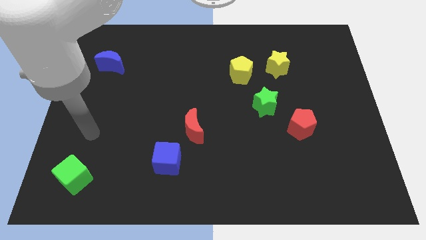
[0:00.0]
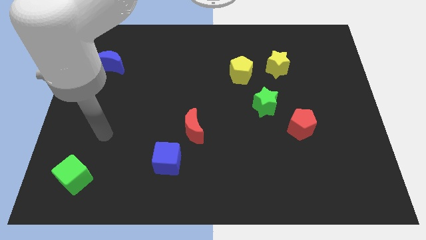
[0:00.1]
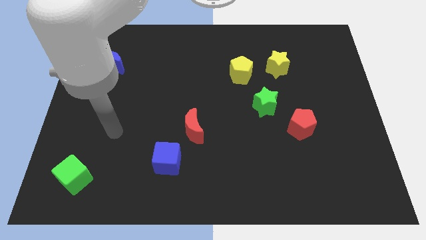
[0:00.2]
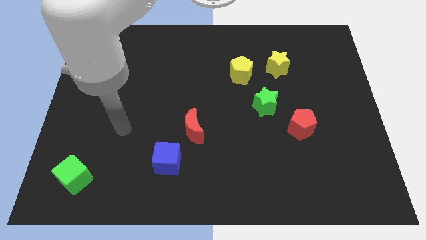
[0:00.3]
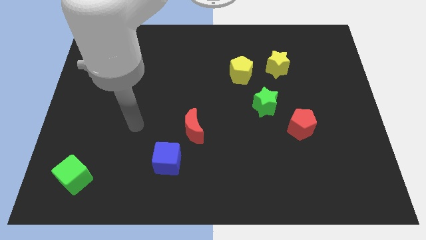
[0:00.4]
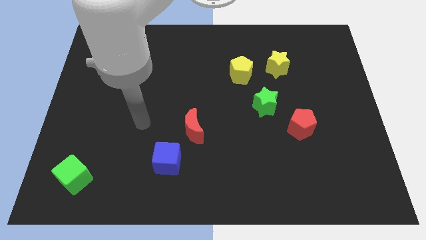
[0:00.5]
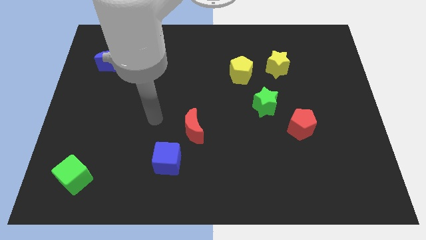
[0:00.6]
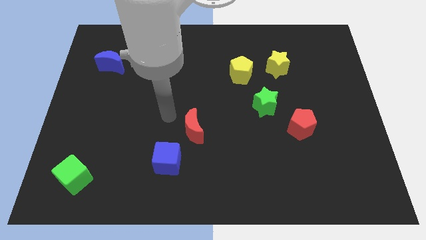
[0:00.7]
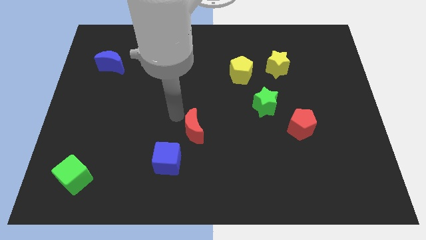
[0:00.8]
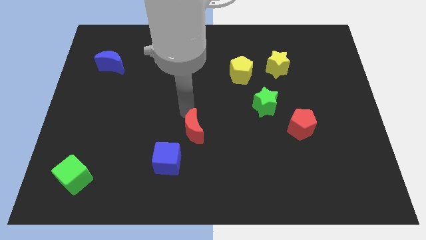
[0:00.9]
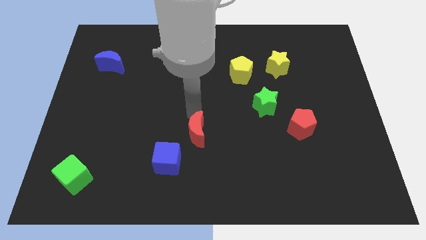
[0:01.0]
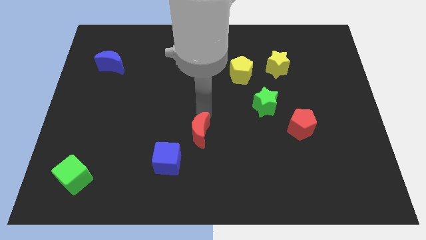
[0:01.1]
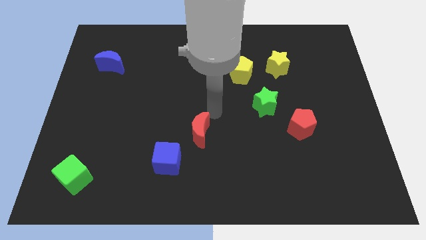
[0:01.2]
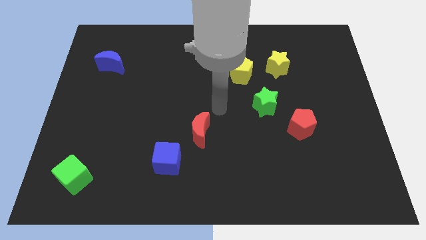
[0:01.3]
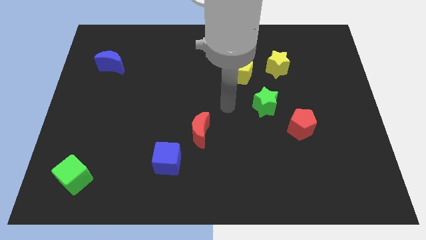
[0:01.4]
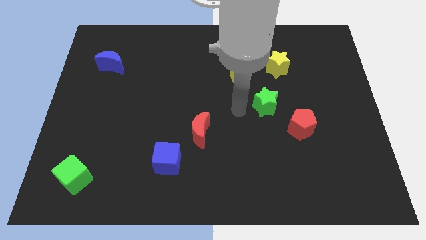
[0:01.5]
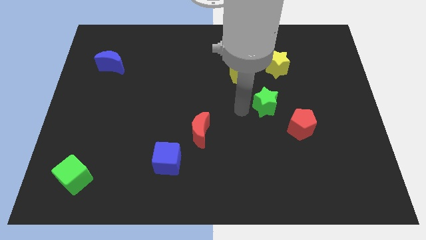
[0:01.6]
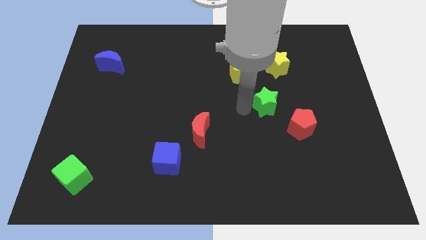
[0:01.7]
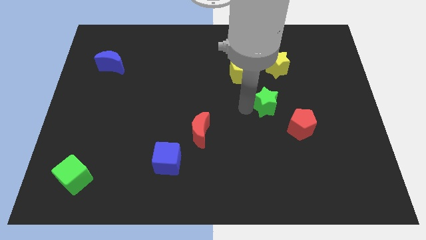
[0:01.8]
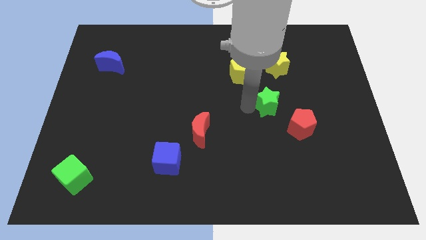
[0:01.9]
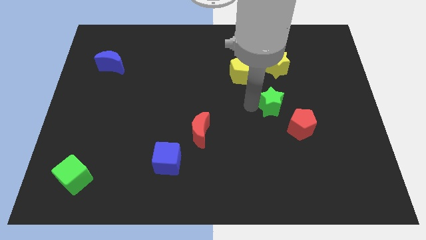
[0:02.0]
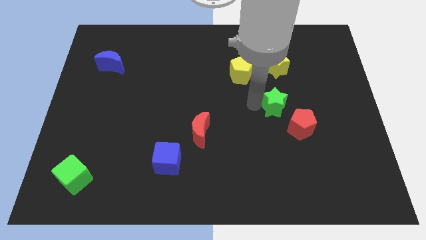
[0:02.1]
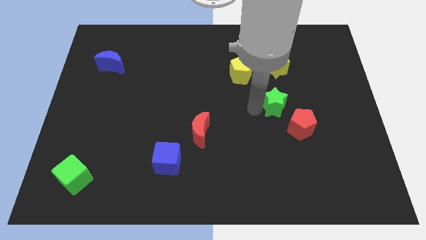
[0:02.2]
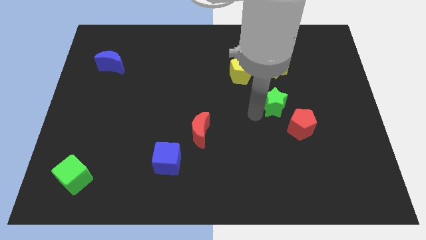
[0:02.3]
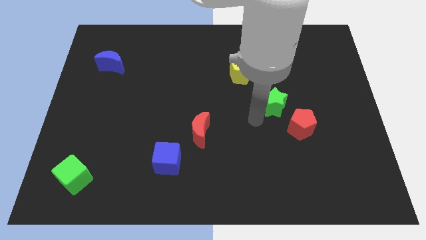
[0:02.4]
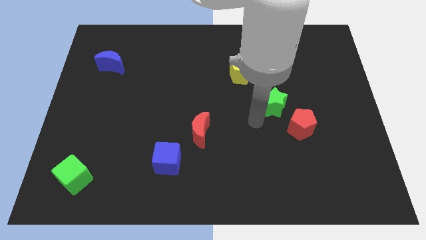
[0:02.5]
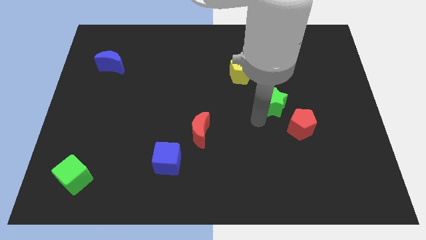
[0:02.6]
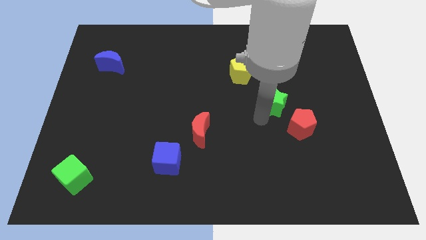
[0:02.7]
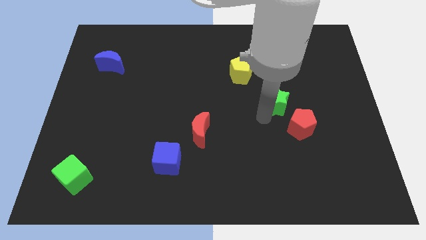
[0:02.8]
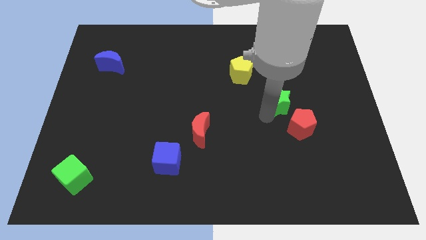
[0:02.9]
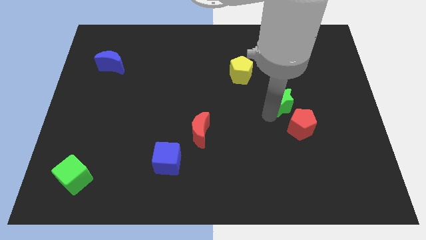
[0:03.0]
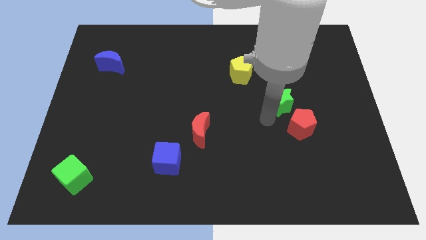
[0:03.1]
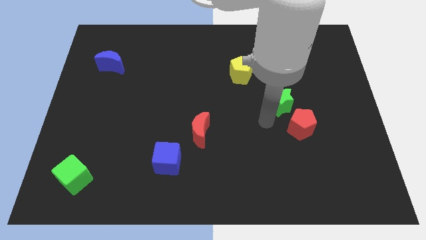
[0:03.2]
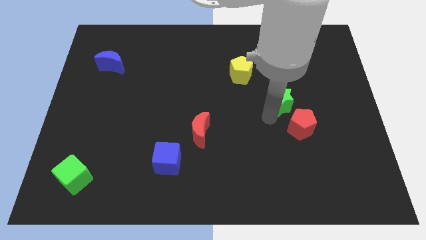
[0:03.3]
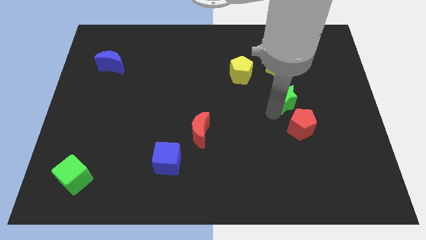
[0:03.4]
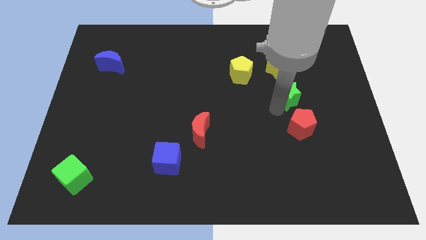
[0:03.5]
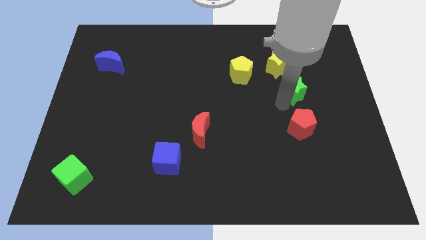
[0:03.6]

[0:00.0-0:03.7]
move the green star up and right diagonally a little

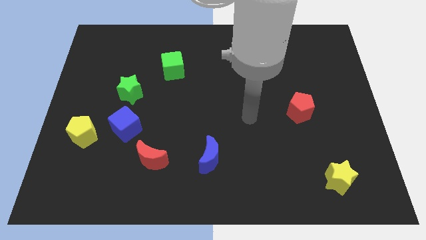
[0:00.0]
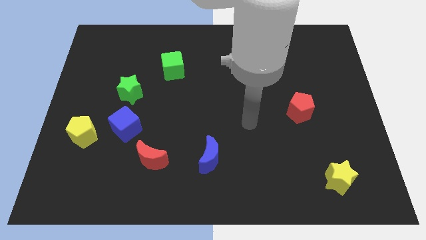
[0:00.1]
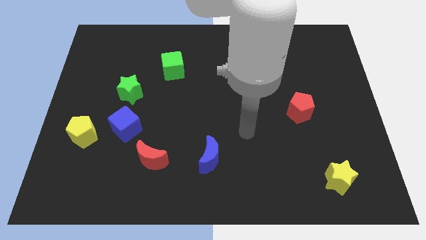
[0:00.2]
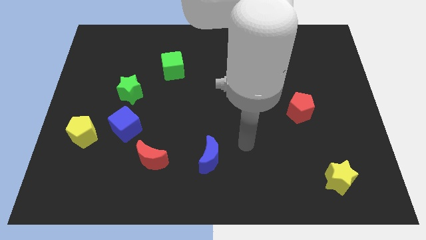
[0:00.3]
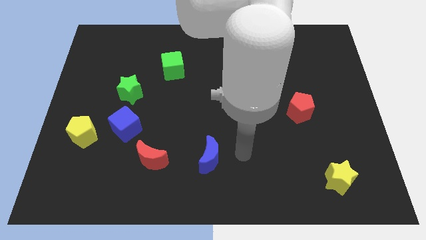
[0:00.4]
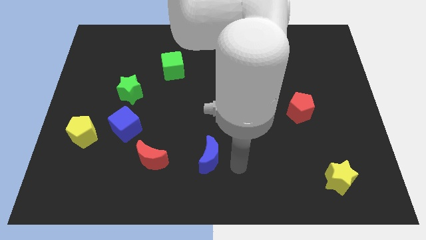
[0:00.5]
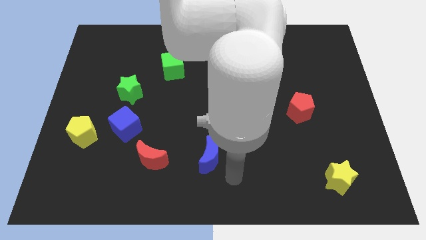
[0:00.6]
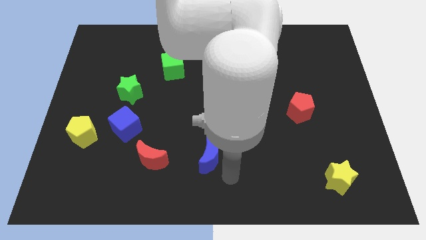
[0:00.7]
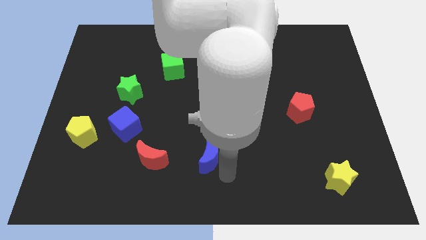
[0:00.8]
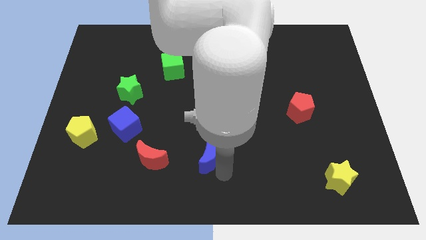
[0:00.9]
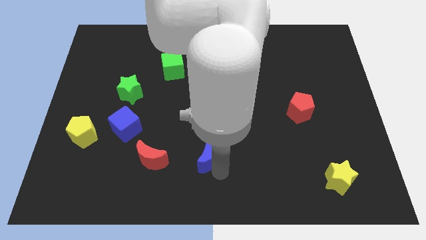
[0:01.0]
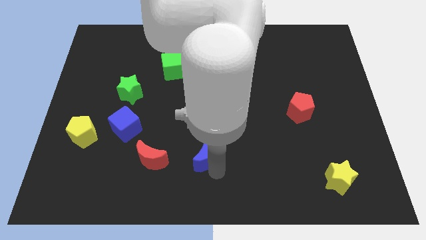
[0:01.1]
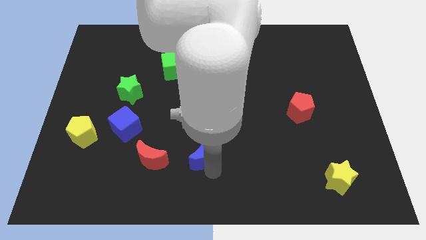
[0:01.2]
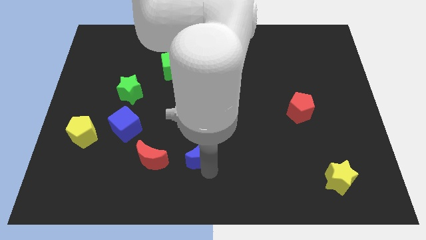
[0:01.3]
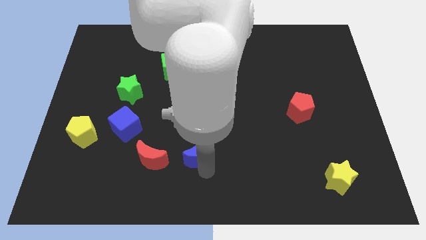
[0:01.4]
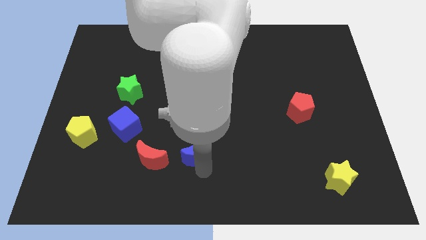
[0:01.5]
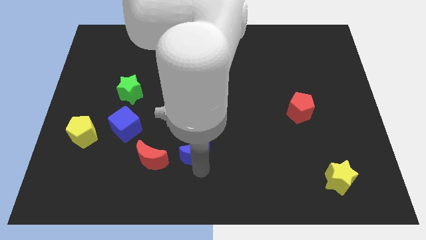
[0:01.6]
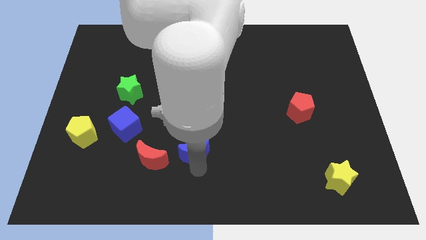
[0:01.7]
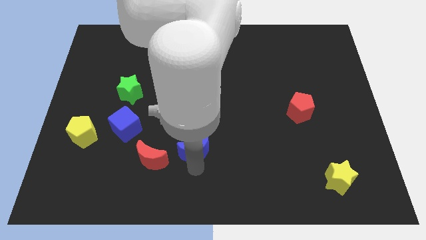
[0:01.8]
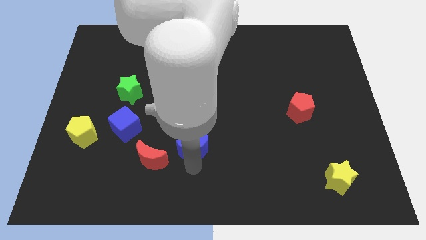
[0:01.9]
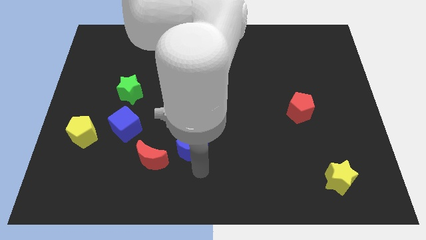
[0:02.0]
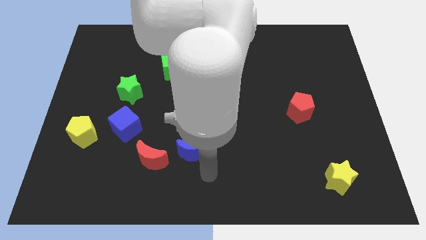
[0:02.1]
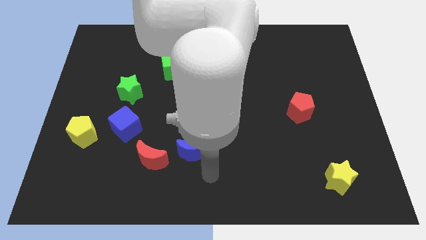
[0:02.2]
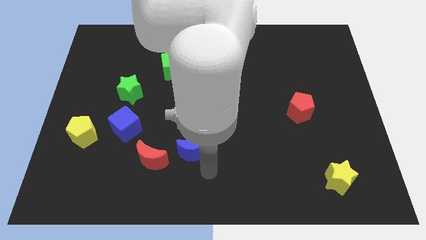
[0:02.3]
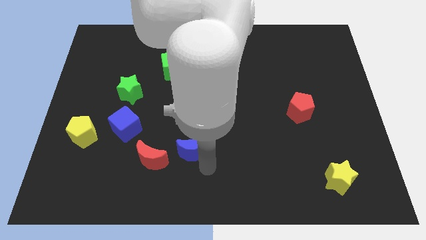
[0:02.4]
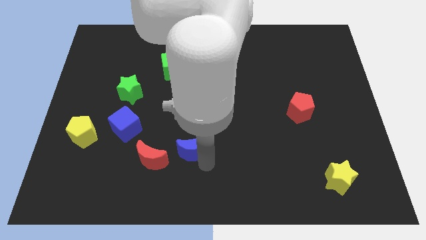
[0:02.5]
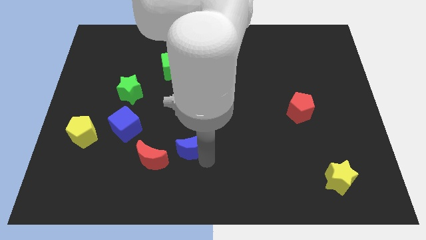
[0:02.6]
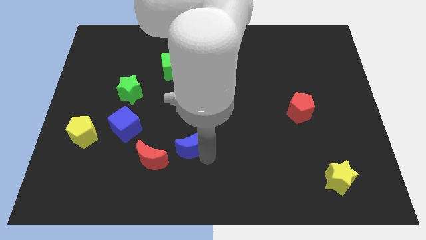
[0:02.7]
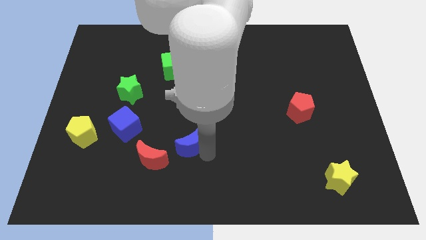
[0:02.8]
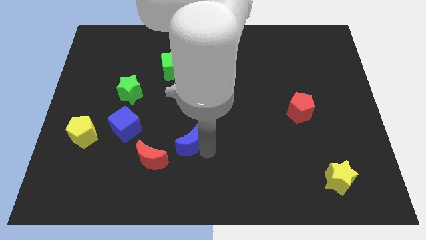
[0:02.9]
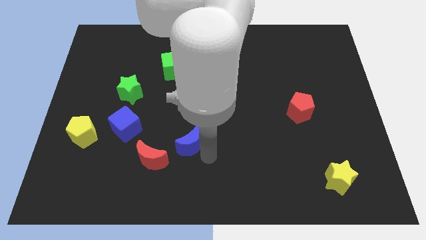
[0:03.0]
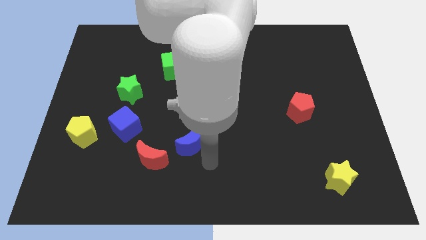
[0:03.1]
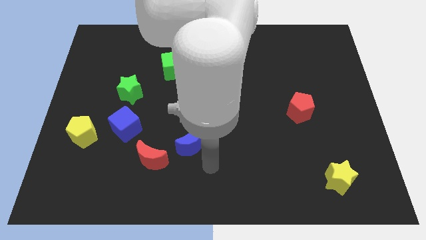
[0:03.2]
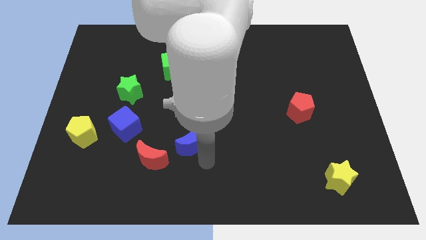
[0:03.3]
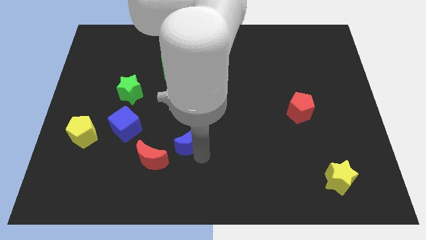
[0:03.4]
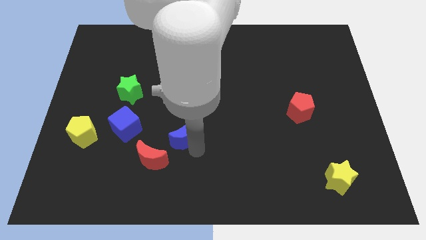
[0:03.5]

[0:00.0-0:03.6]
move the blue moon upwards and then left slightly

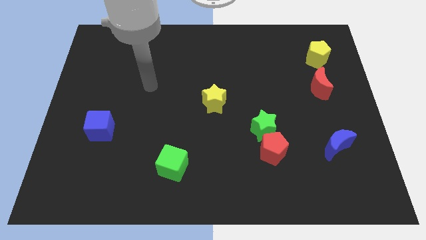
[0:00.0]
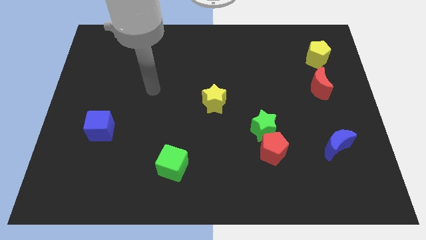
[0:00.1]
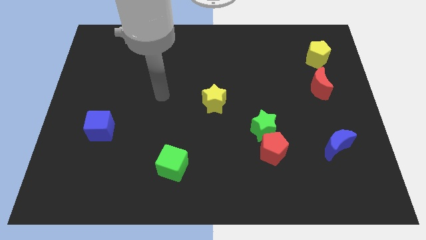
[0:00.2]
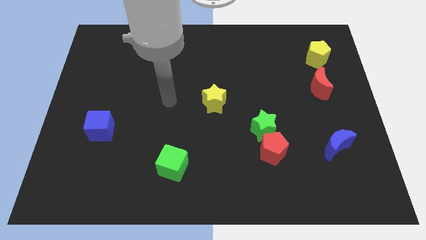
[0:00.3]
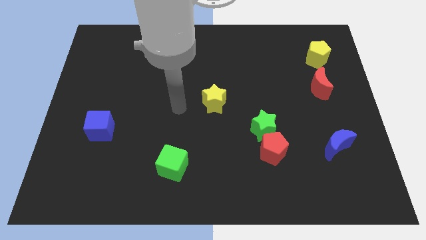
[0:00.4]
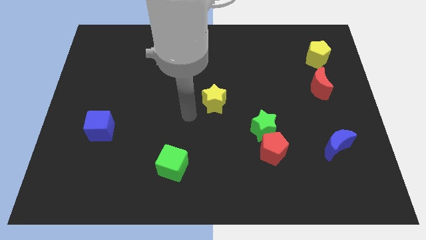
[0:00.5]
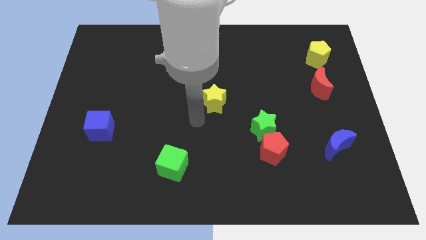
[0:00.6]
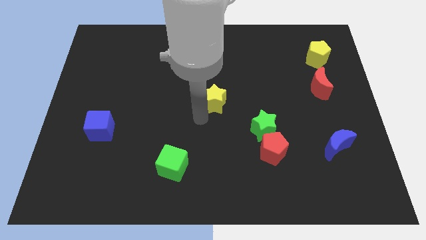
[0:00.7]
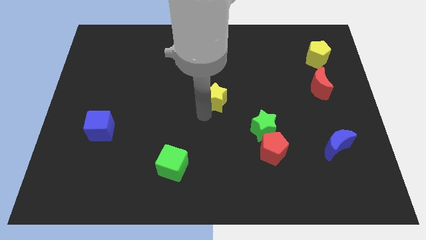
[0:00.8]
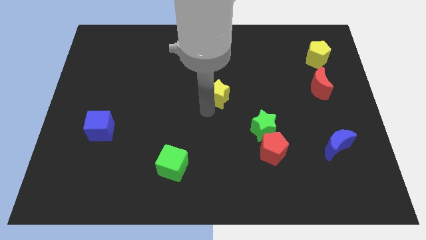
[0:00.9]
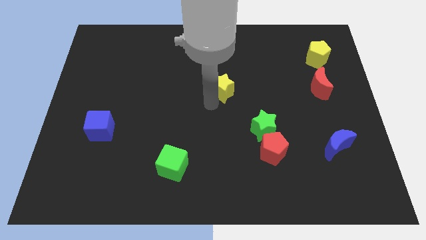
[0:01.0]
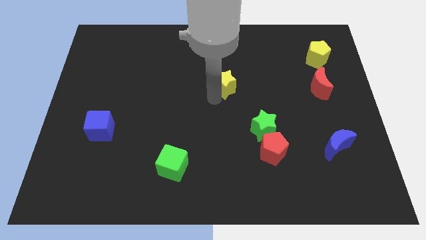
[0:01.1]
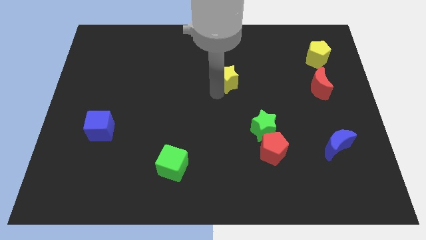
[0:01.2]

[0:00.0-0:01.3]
slide the yellow star upwards and to the right a little
